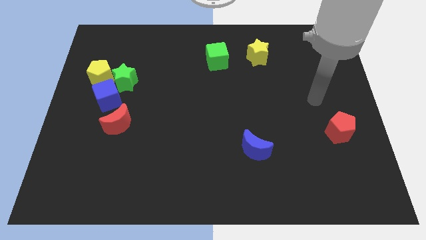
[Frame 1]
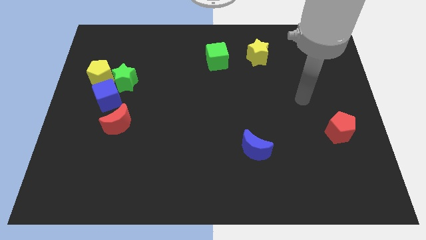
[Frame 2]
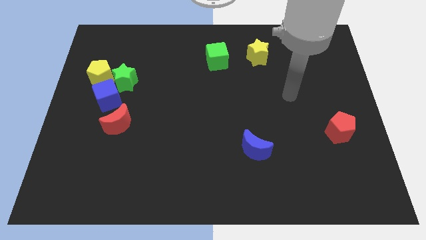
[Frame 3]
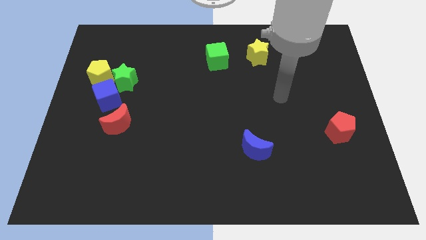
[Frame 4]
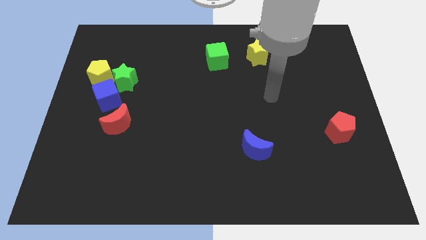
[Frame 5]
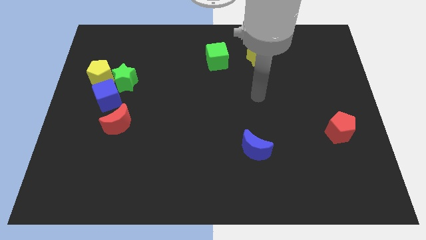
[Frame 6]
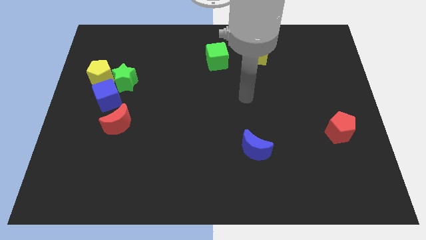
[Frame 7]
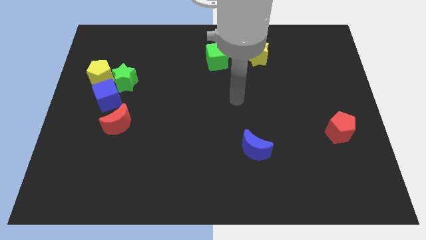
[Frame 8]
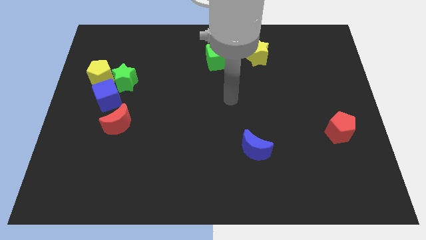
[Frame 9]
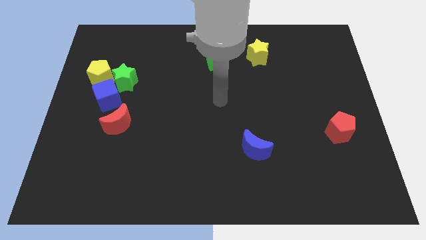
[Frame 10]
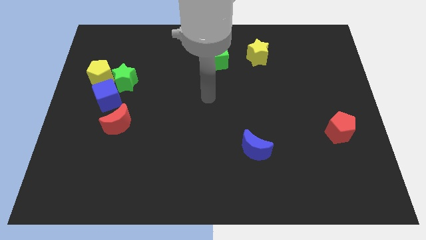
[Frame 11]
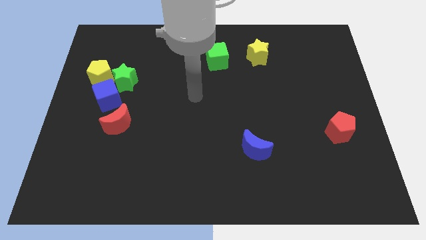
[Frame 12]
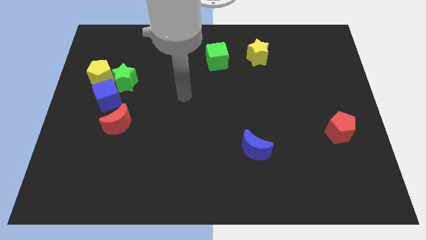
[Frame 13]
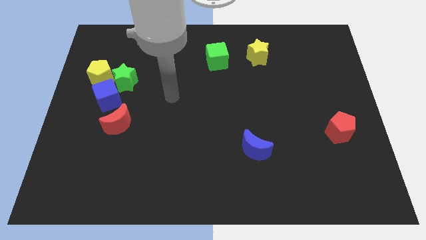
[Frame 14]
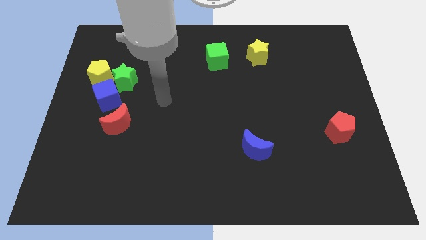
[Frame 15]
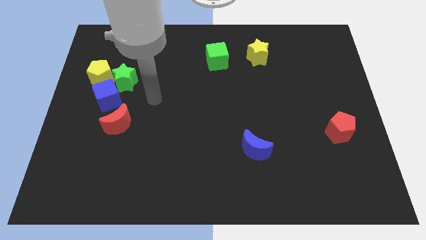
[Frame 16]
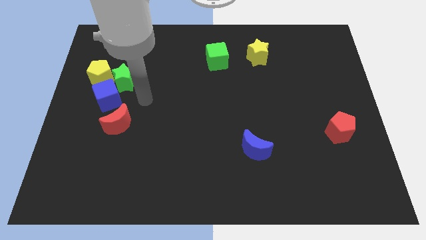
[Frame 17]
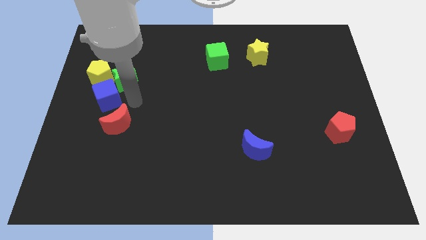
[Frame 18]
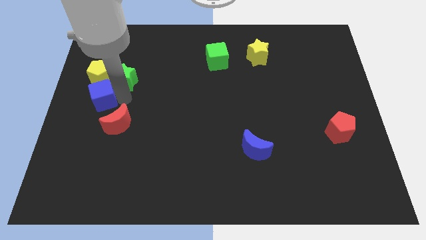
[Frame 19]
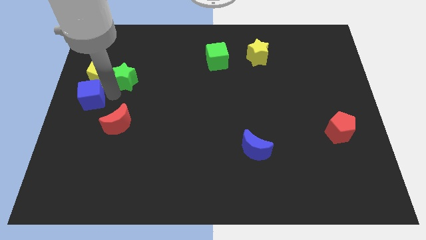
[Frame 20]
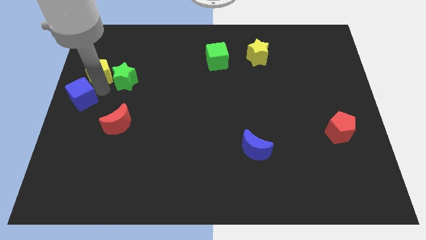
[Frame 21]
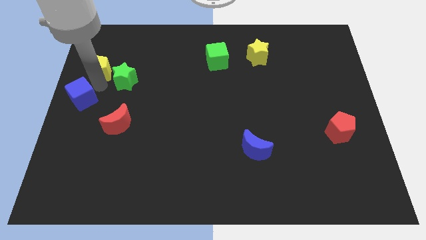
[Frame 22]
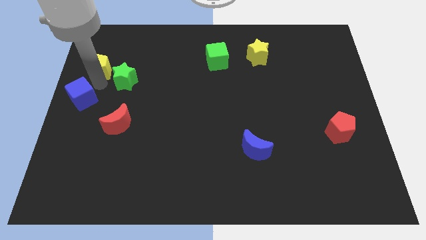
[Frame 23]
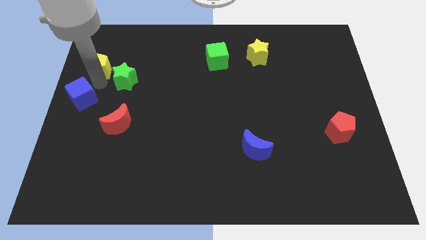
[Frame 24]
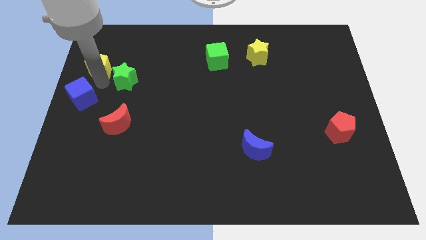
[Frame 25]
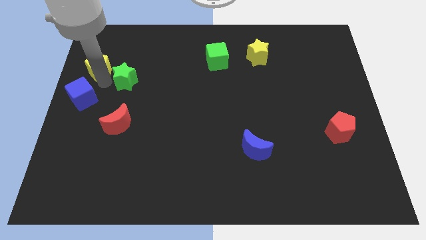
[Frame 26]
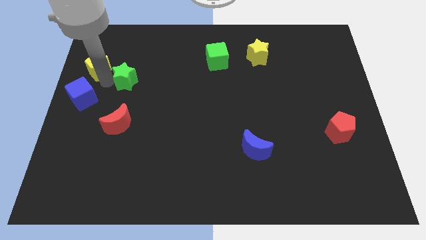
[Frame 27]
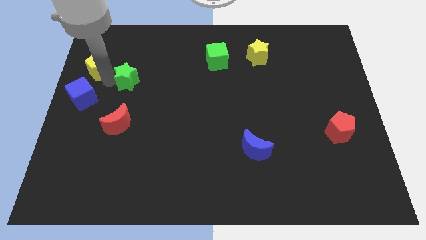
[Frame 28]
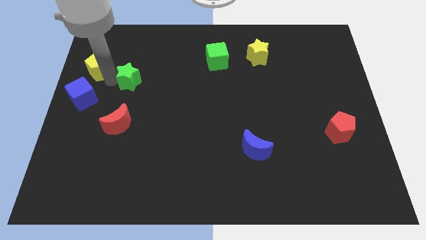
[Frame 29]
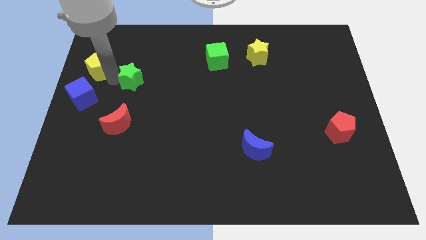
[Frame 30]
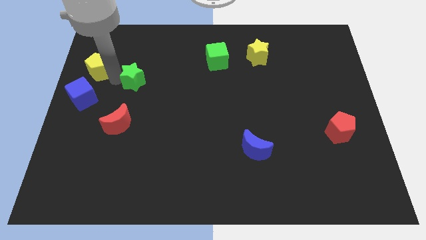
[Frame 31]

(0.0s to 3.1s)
separate the green star from the blue cube and yellow pentagon

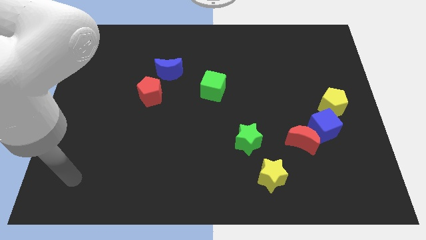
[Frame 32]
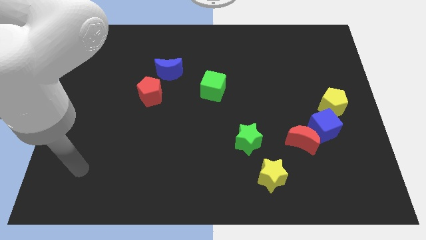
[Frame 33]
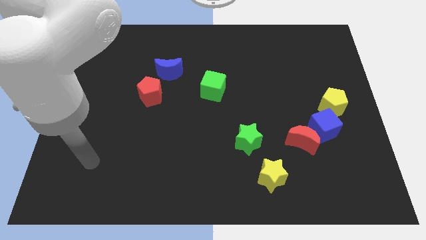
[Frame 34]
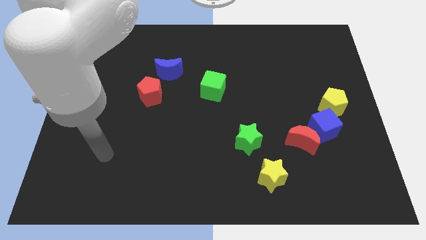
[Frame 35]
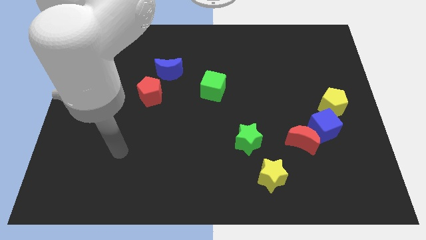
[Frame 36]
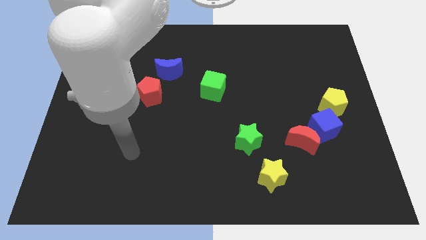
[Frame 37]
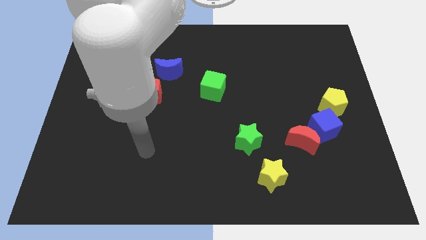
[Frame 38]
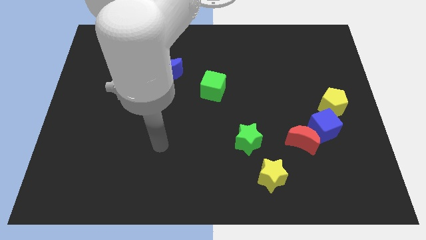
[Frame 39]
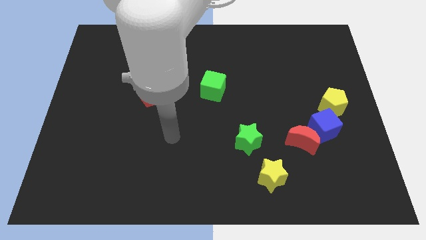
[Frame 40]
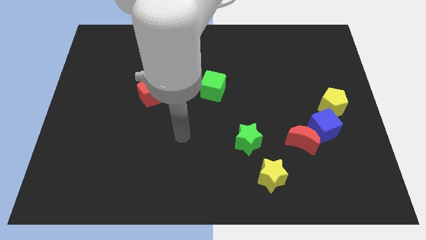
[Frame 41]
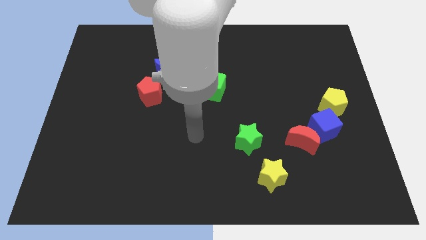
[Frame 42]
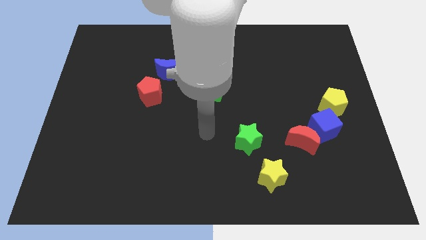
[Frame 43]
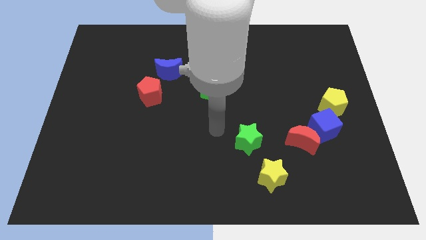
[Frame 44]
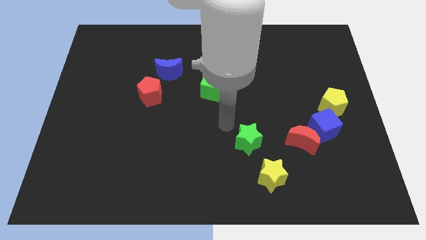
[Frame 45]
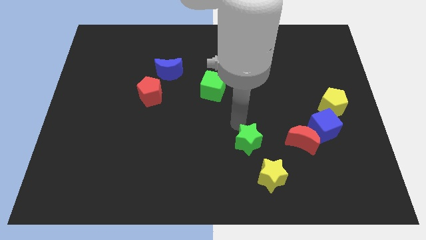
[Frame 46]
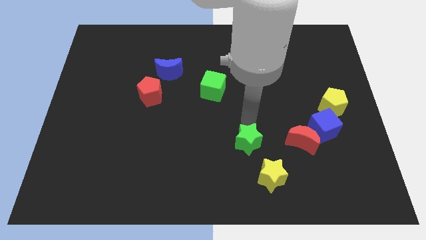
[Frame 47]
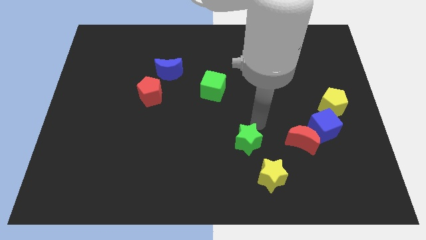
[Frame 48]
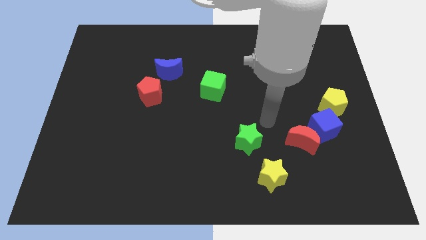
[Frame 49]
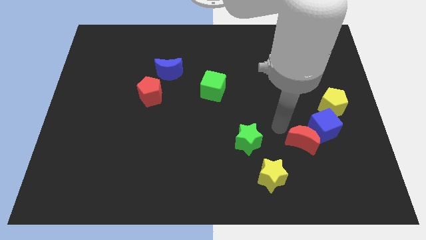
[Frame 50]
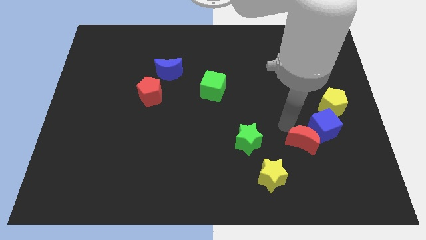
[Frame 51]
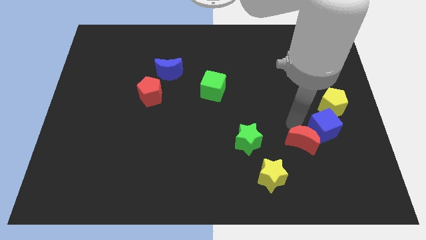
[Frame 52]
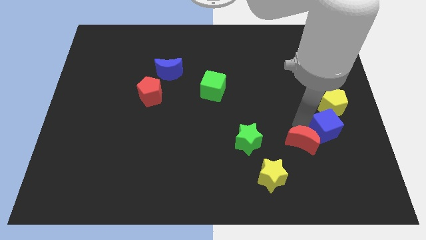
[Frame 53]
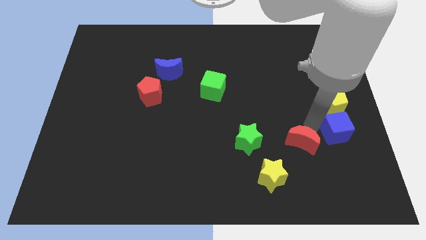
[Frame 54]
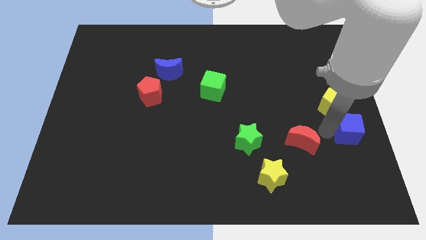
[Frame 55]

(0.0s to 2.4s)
separate the red moon from the blue cube

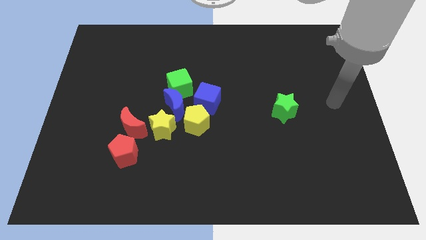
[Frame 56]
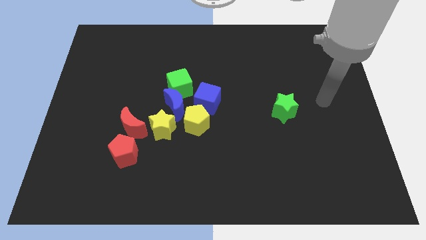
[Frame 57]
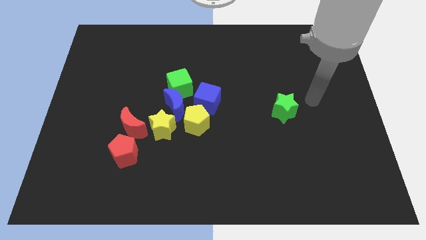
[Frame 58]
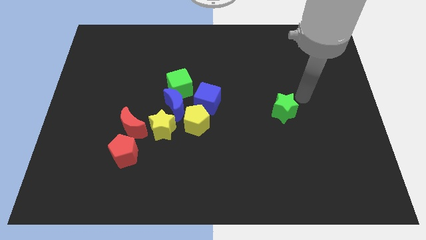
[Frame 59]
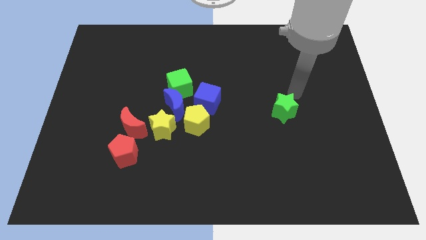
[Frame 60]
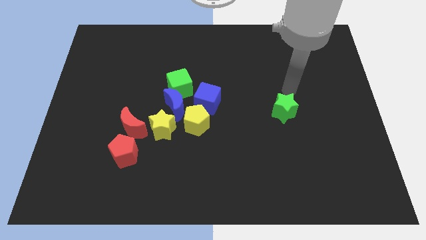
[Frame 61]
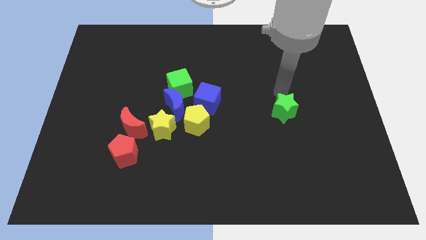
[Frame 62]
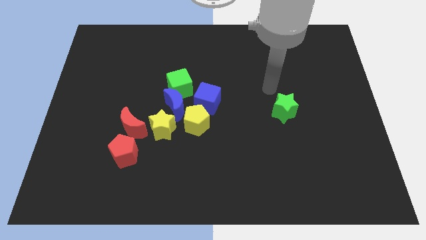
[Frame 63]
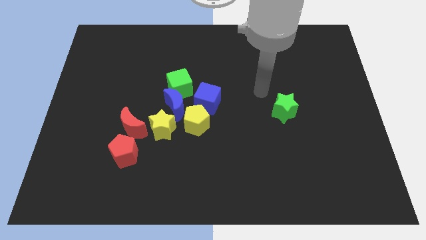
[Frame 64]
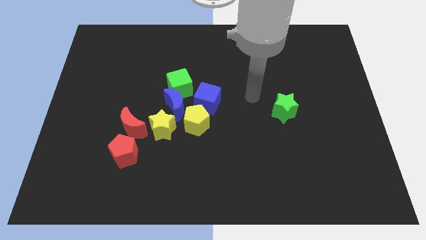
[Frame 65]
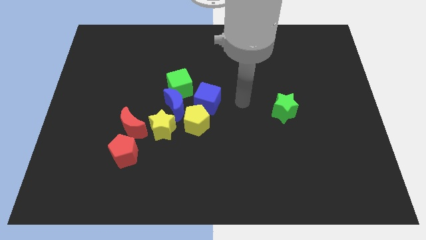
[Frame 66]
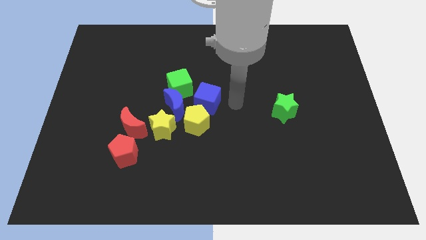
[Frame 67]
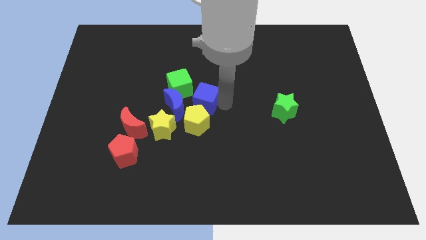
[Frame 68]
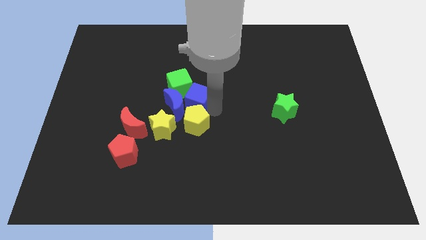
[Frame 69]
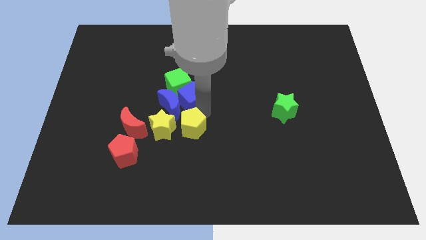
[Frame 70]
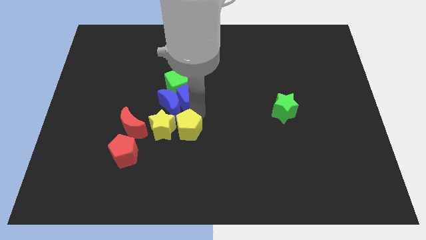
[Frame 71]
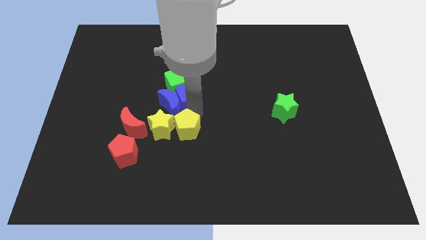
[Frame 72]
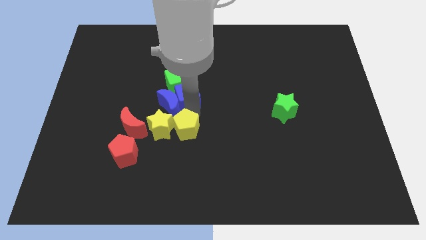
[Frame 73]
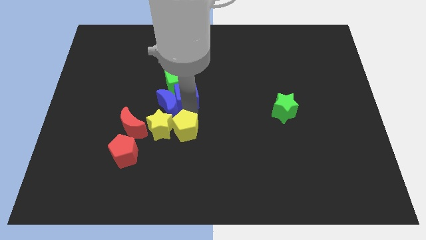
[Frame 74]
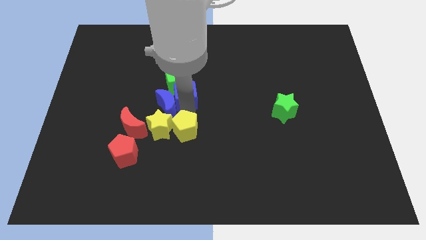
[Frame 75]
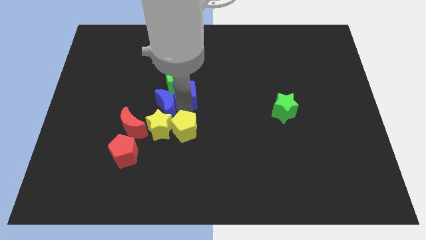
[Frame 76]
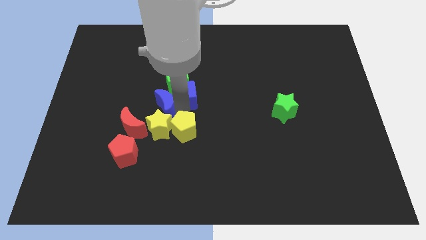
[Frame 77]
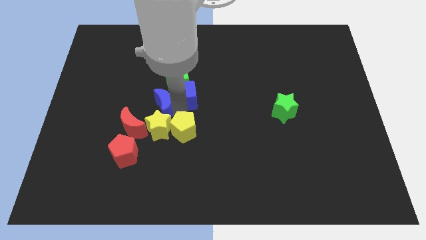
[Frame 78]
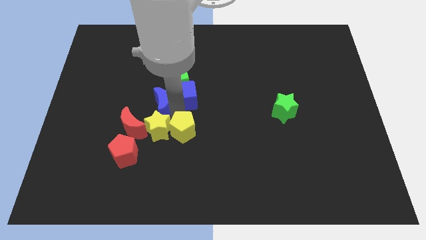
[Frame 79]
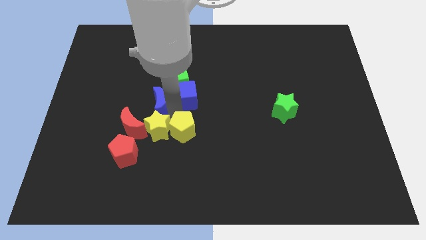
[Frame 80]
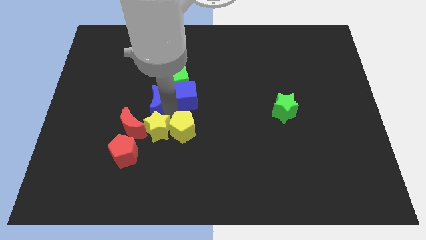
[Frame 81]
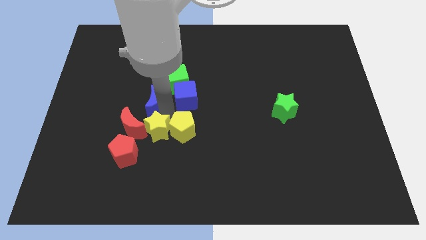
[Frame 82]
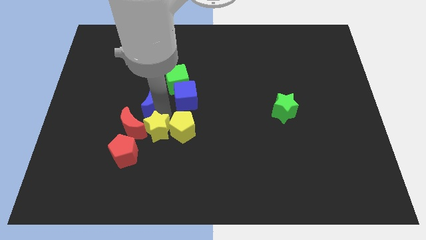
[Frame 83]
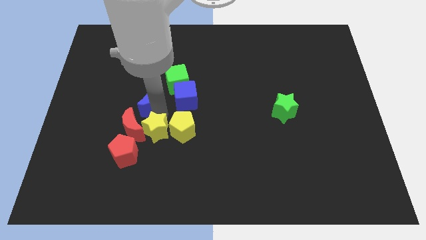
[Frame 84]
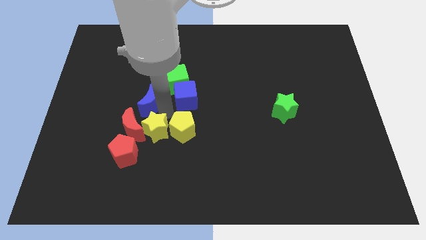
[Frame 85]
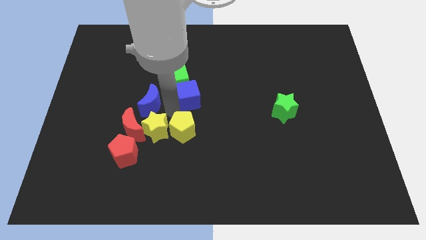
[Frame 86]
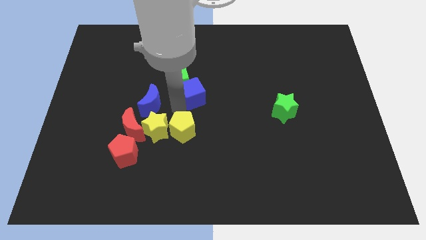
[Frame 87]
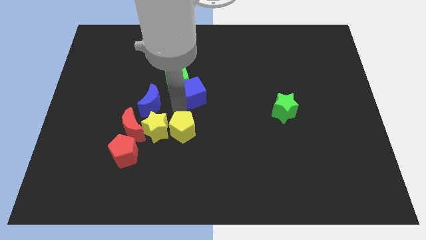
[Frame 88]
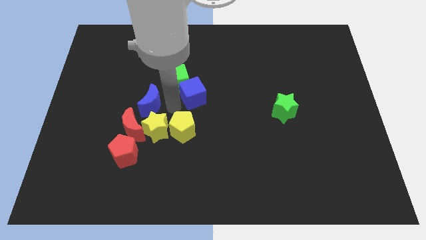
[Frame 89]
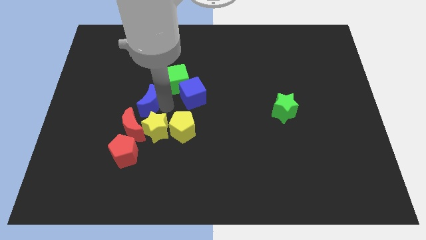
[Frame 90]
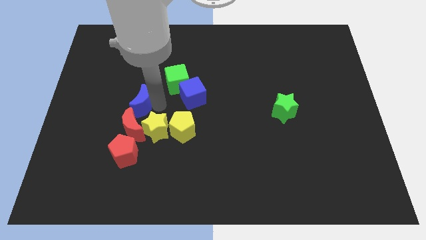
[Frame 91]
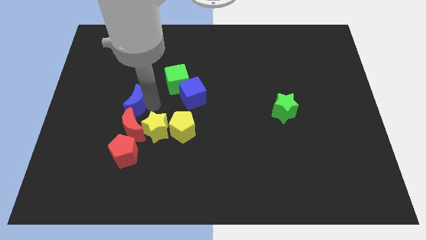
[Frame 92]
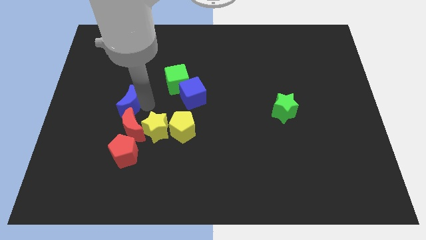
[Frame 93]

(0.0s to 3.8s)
separate the blue moon from the group
